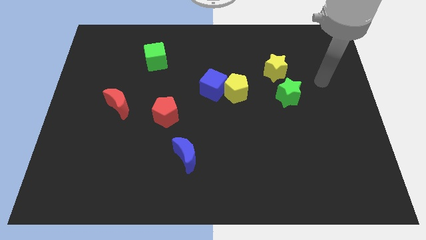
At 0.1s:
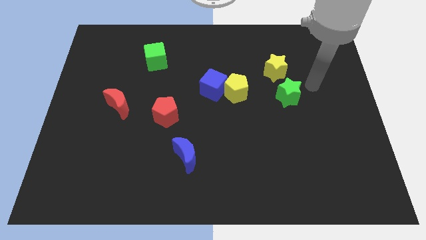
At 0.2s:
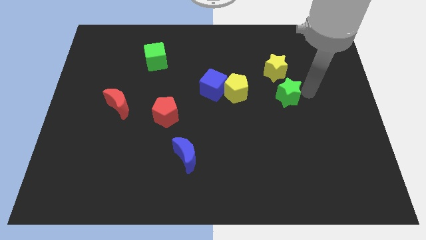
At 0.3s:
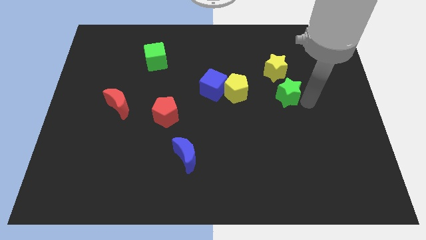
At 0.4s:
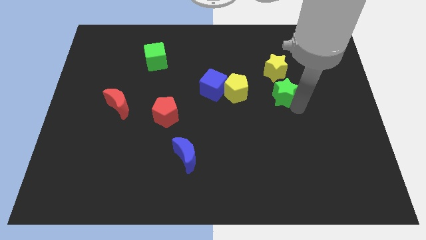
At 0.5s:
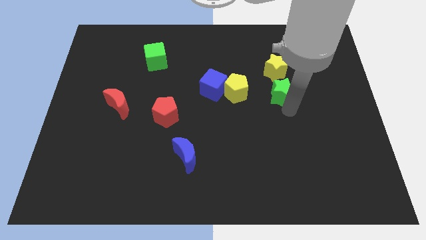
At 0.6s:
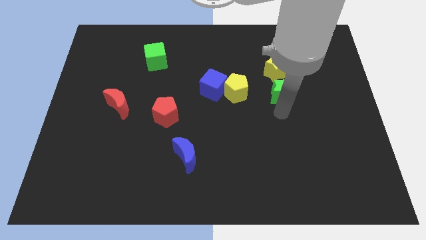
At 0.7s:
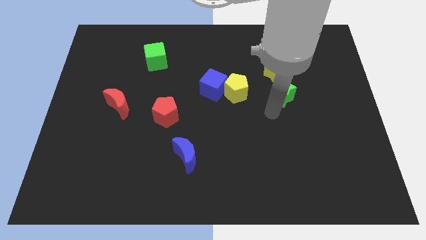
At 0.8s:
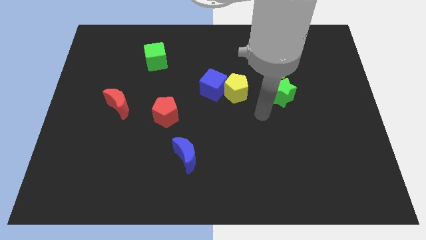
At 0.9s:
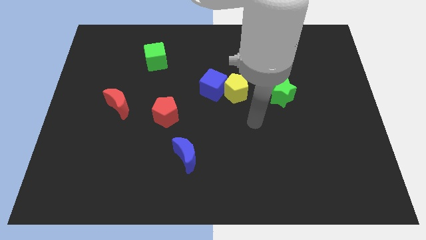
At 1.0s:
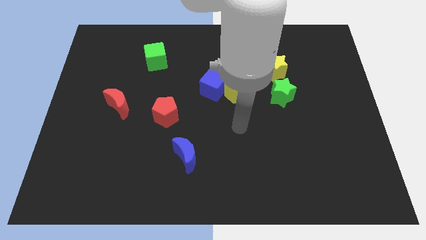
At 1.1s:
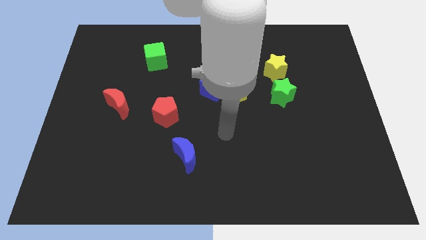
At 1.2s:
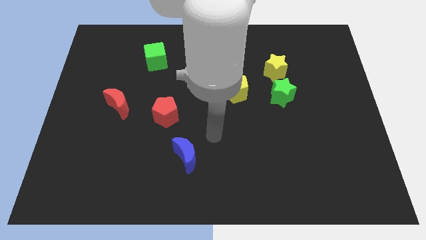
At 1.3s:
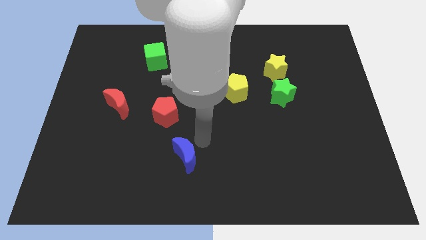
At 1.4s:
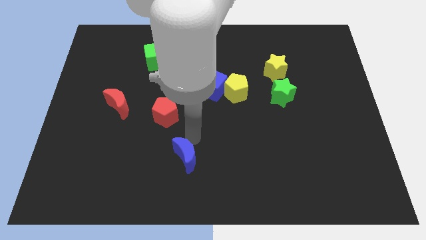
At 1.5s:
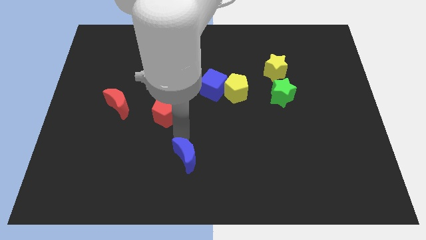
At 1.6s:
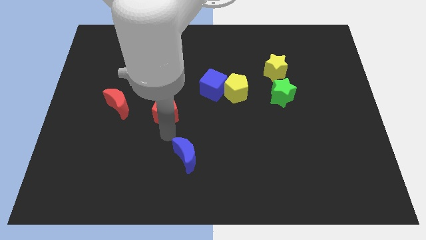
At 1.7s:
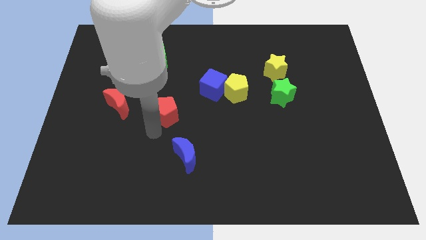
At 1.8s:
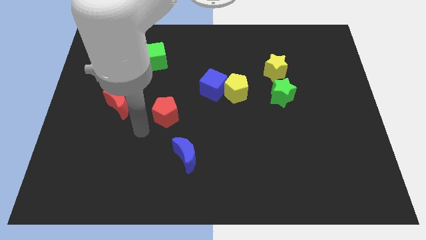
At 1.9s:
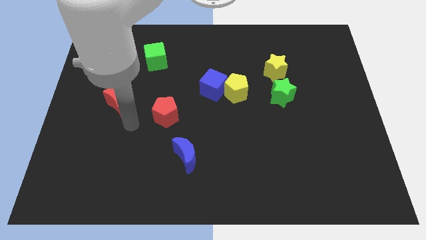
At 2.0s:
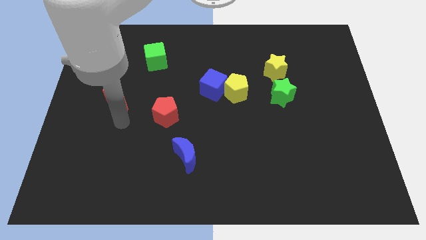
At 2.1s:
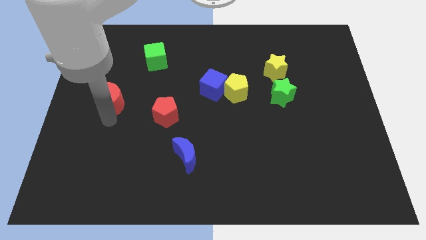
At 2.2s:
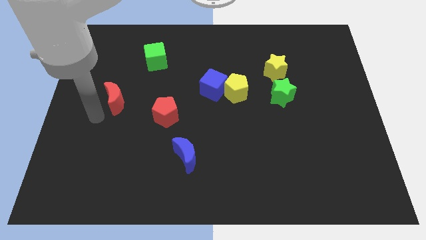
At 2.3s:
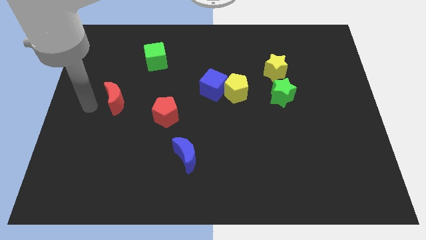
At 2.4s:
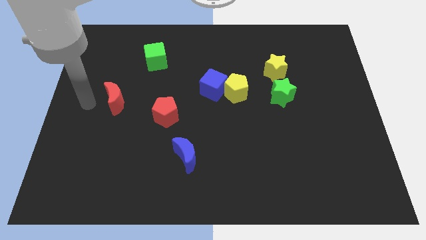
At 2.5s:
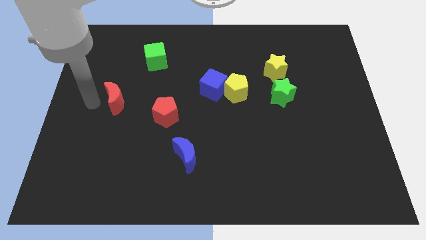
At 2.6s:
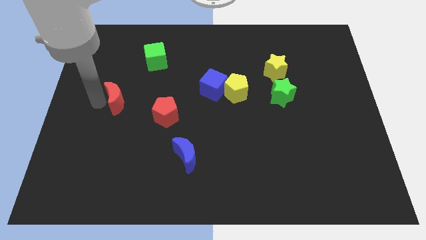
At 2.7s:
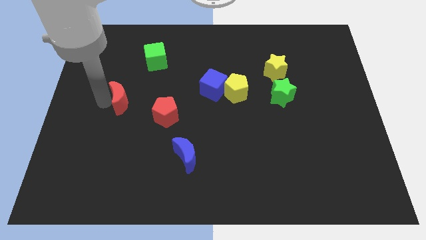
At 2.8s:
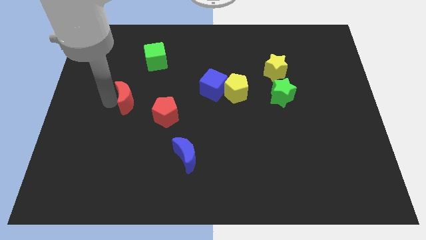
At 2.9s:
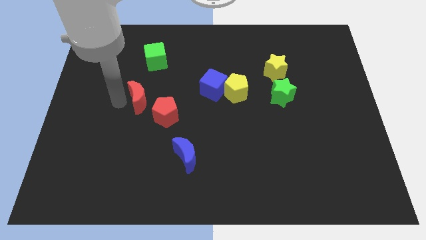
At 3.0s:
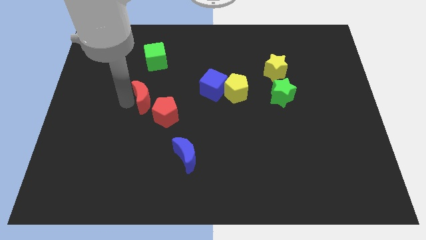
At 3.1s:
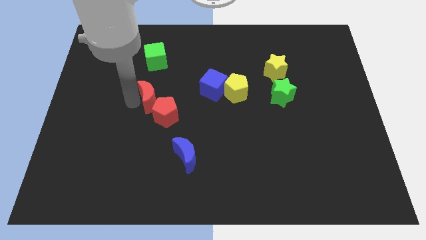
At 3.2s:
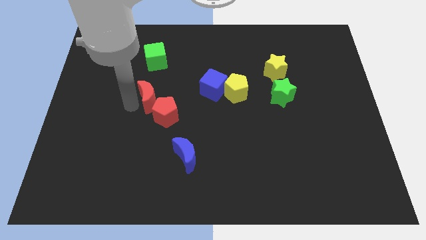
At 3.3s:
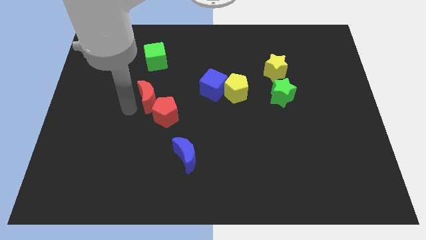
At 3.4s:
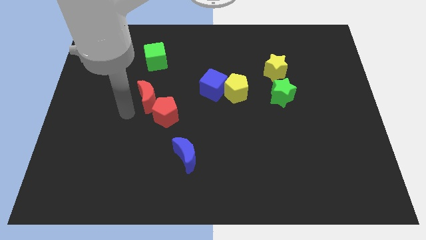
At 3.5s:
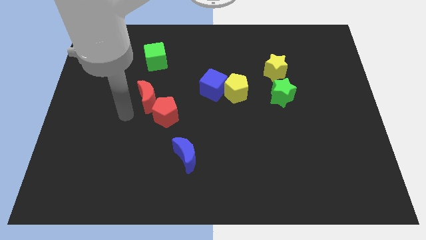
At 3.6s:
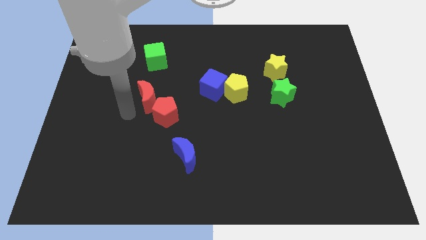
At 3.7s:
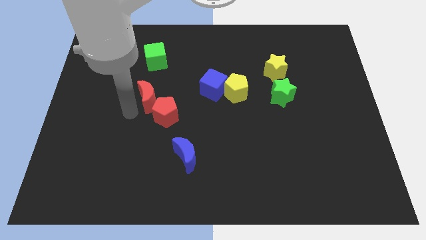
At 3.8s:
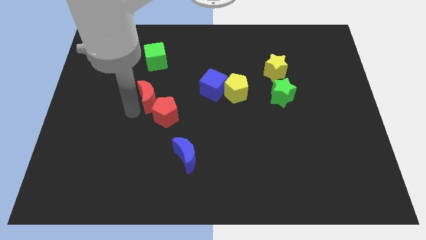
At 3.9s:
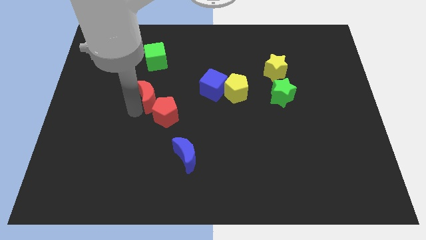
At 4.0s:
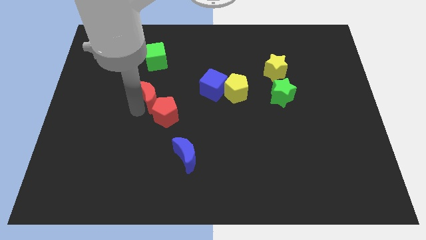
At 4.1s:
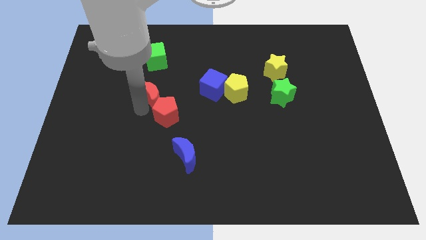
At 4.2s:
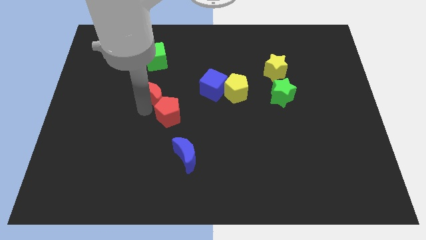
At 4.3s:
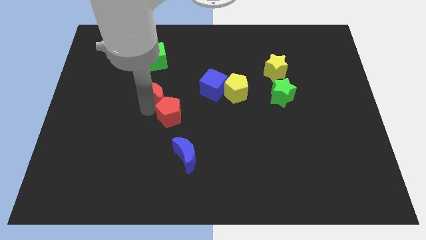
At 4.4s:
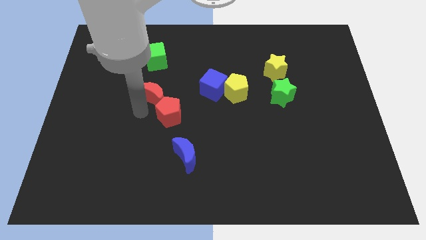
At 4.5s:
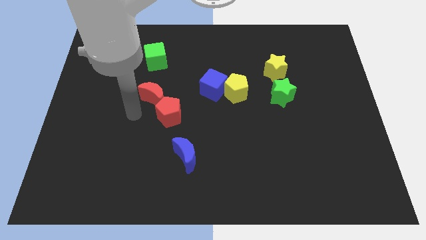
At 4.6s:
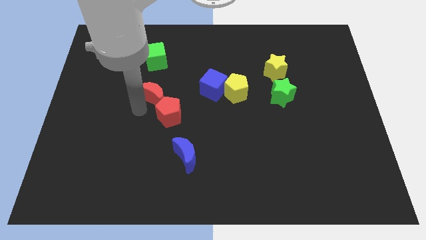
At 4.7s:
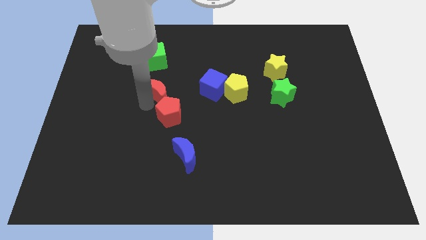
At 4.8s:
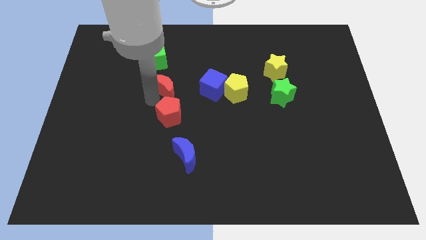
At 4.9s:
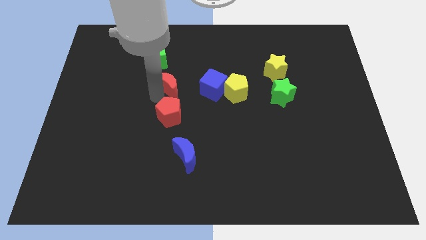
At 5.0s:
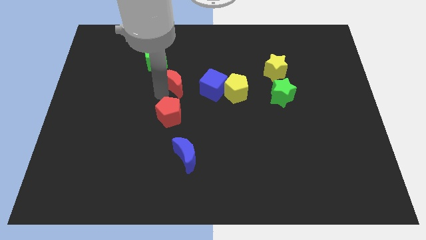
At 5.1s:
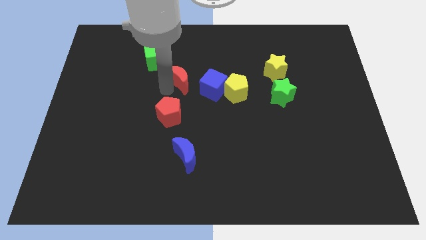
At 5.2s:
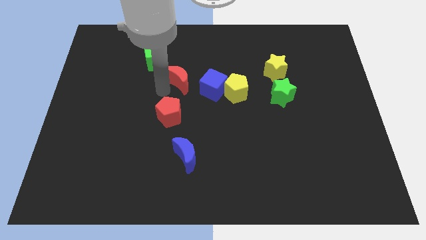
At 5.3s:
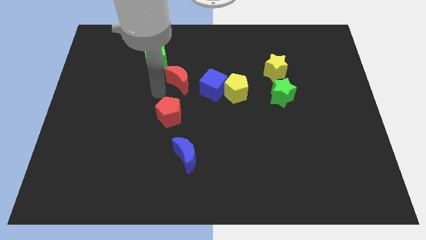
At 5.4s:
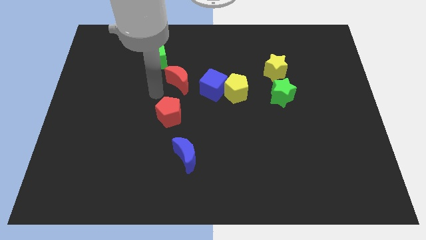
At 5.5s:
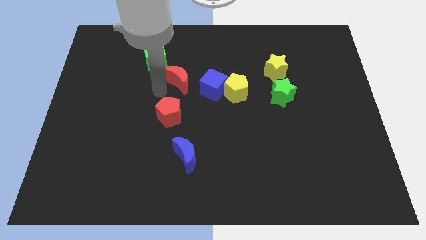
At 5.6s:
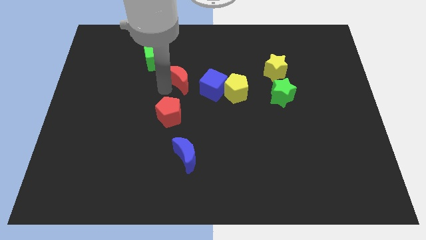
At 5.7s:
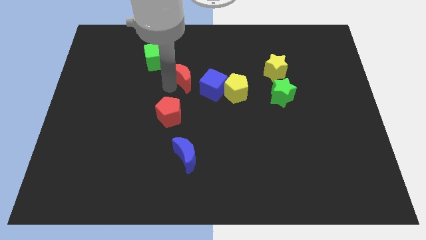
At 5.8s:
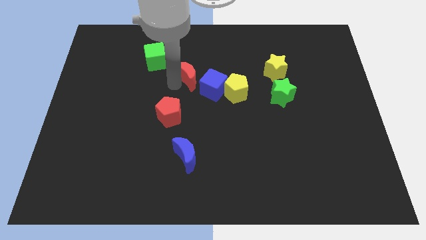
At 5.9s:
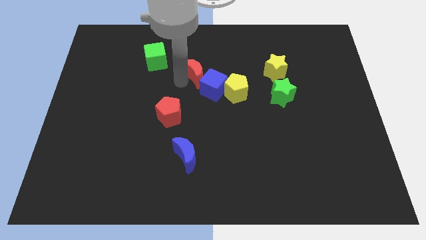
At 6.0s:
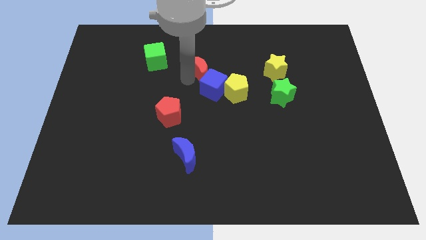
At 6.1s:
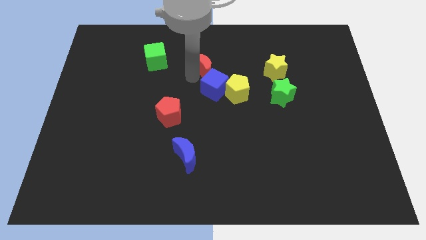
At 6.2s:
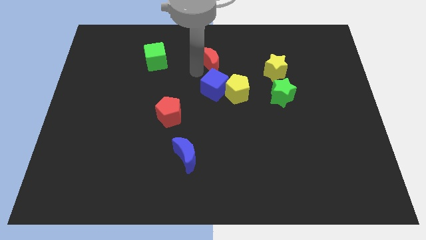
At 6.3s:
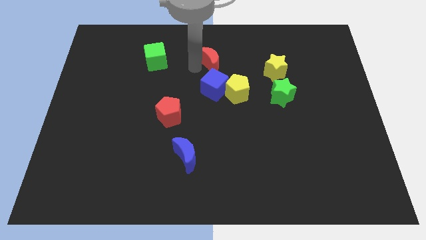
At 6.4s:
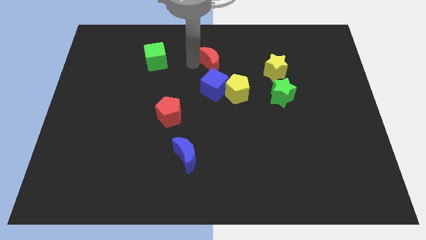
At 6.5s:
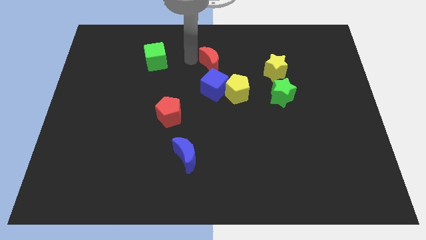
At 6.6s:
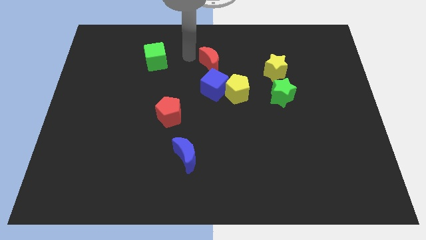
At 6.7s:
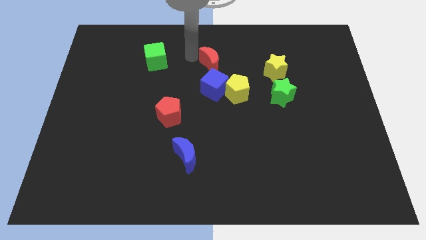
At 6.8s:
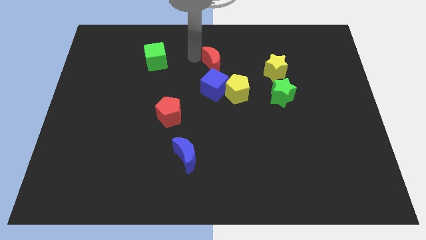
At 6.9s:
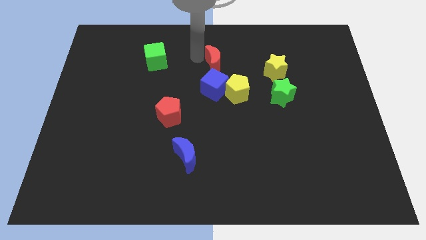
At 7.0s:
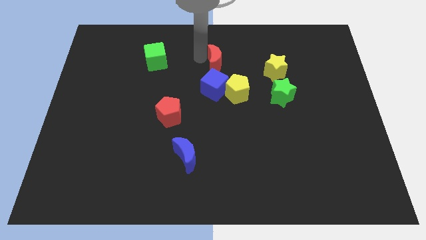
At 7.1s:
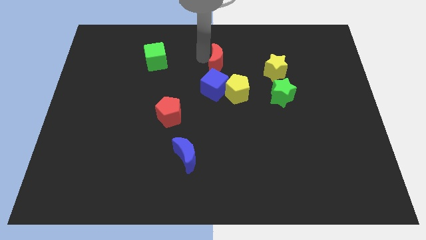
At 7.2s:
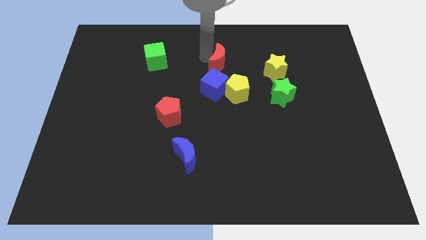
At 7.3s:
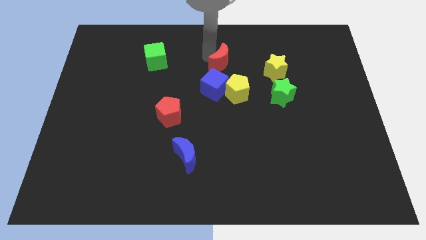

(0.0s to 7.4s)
slide the red moon to the top right side of the blue cube

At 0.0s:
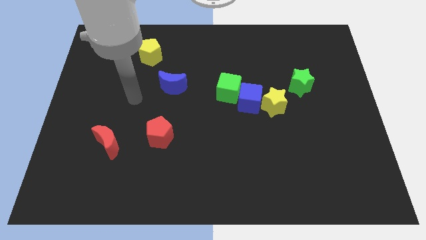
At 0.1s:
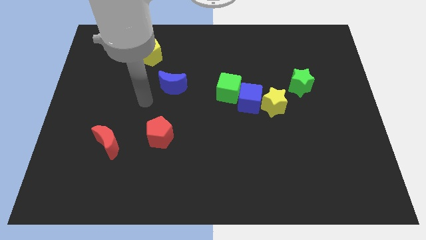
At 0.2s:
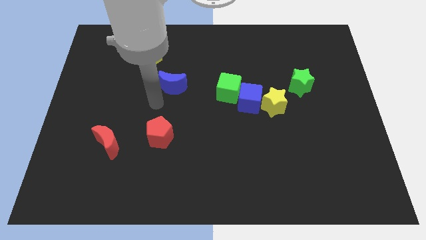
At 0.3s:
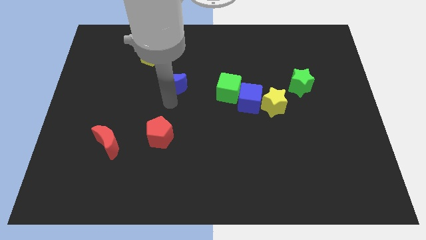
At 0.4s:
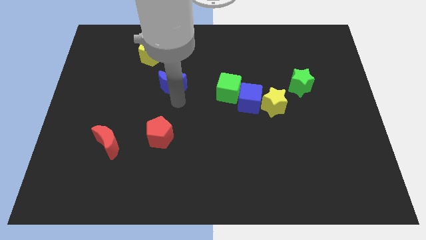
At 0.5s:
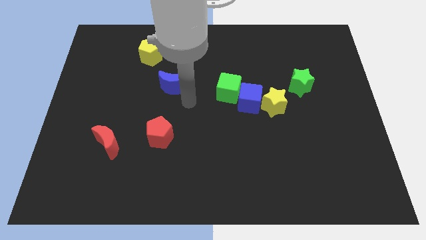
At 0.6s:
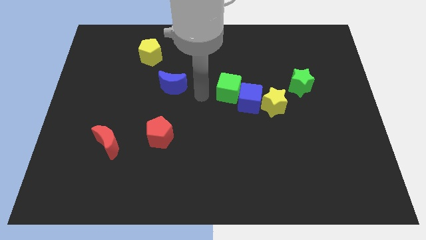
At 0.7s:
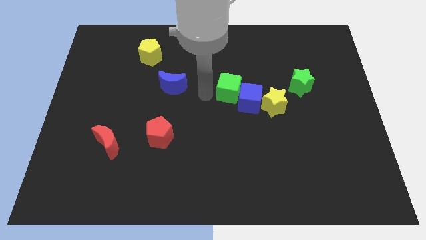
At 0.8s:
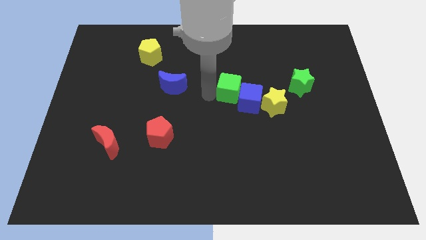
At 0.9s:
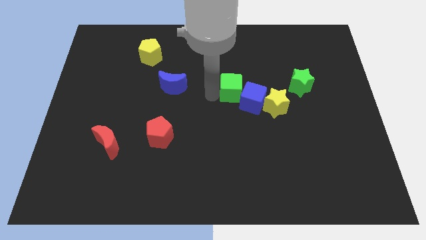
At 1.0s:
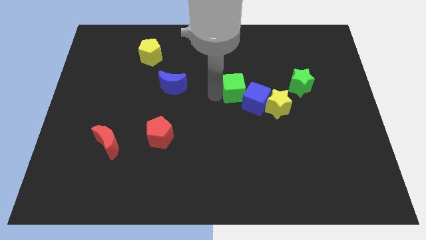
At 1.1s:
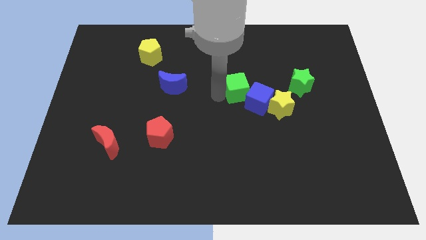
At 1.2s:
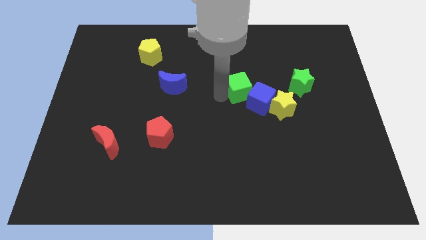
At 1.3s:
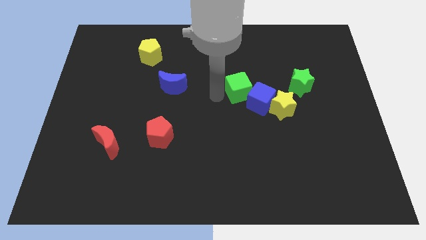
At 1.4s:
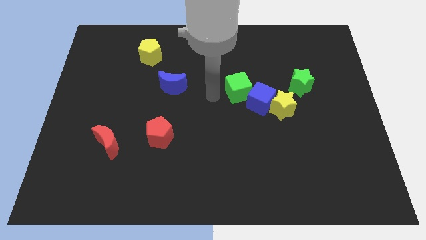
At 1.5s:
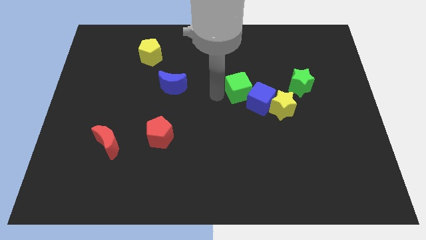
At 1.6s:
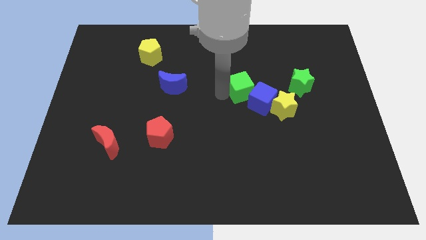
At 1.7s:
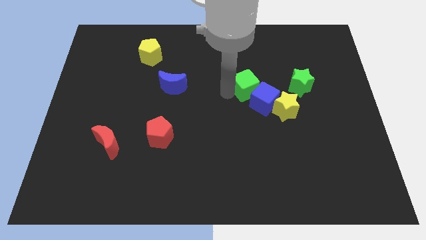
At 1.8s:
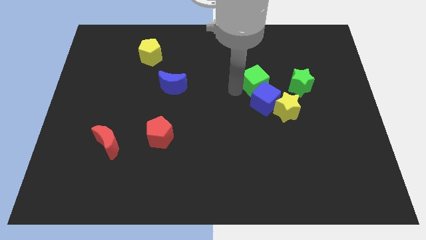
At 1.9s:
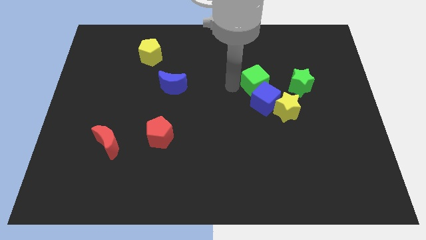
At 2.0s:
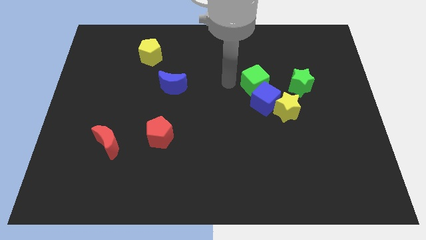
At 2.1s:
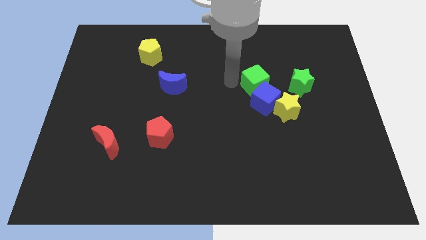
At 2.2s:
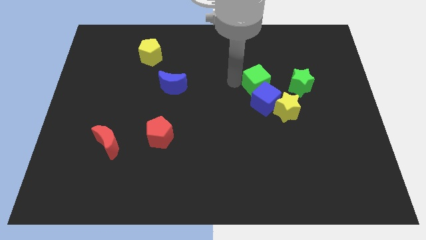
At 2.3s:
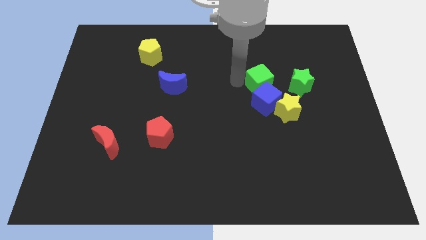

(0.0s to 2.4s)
move the green cube diagonally up and to the right of the blue cube
